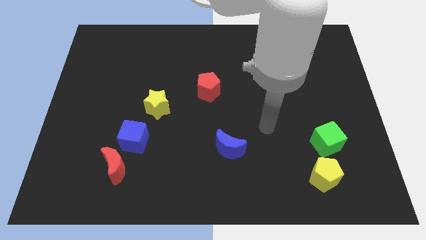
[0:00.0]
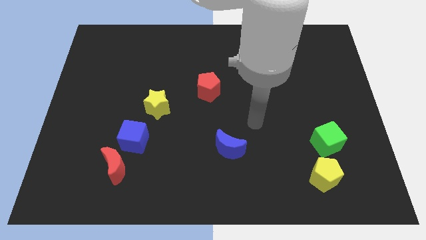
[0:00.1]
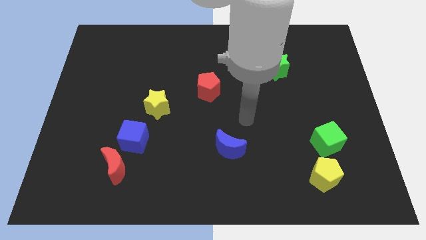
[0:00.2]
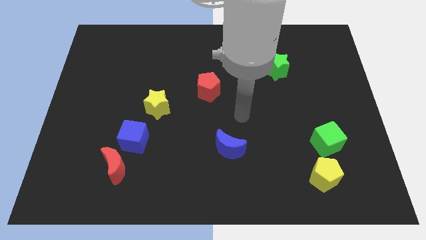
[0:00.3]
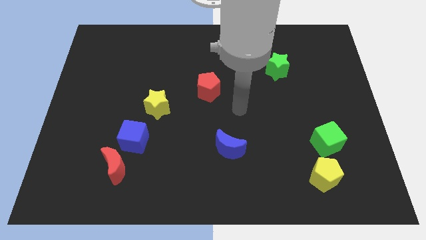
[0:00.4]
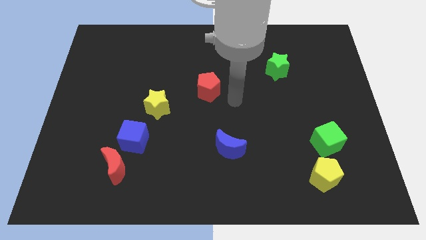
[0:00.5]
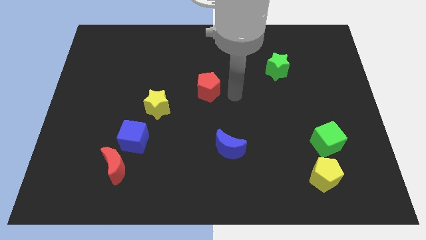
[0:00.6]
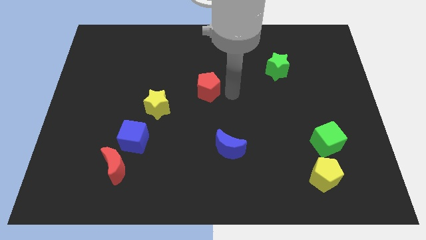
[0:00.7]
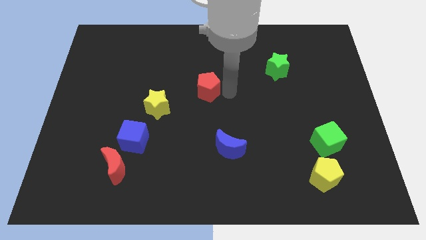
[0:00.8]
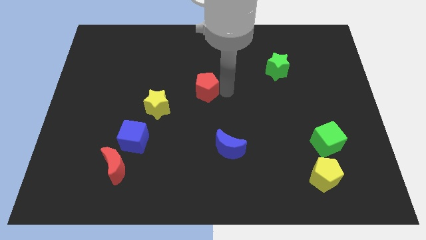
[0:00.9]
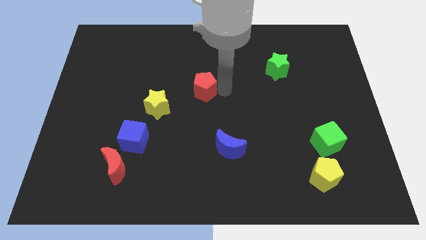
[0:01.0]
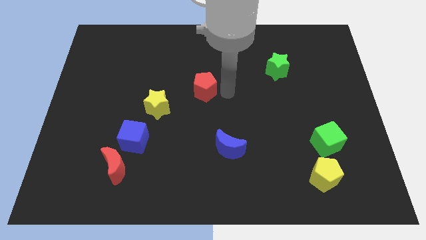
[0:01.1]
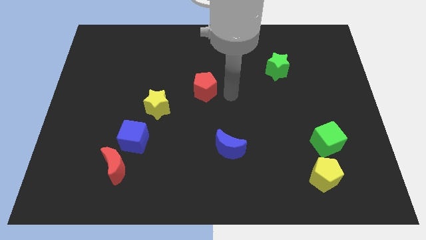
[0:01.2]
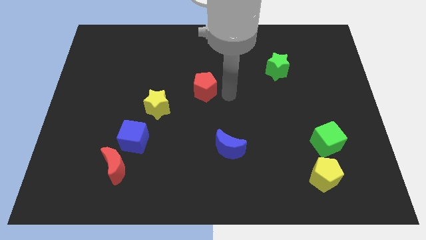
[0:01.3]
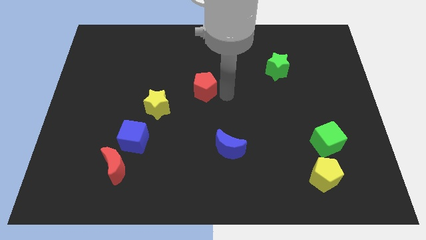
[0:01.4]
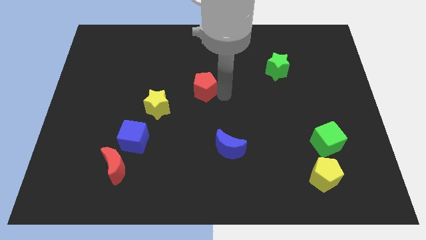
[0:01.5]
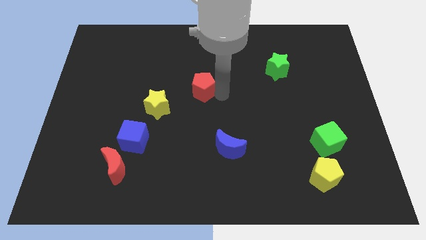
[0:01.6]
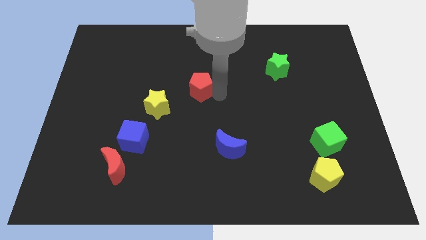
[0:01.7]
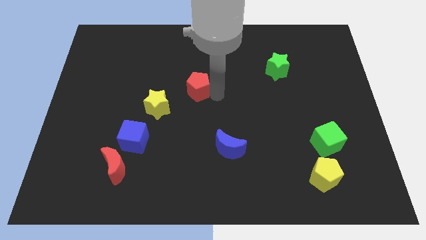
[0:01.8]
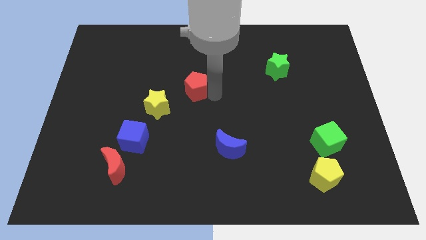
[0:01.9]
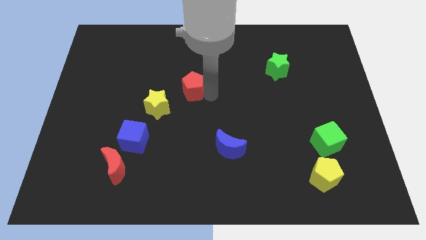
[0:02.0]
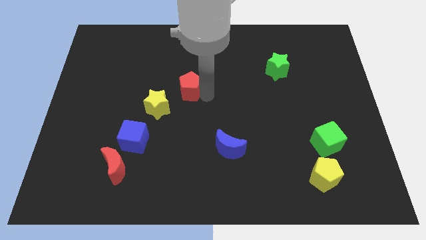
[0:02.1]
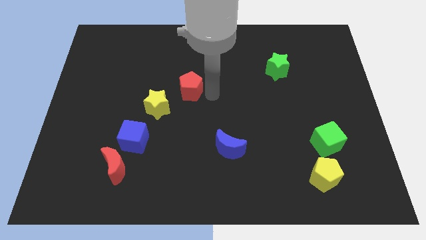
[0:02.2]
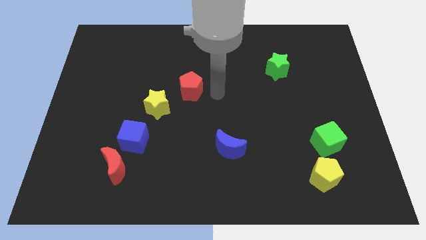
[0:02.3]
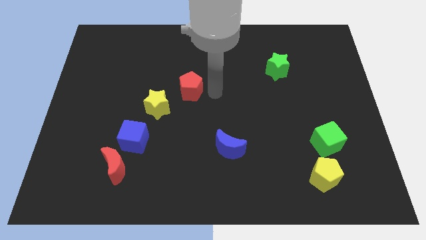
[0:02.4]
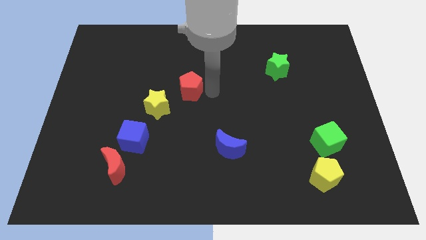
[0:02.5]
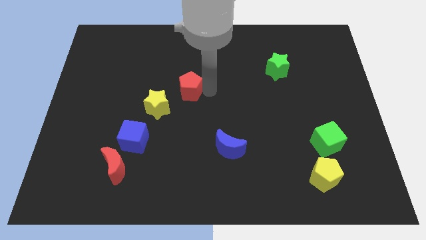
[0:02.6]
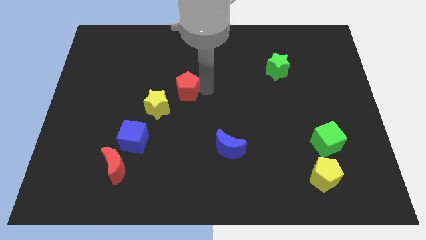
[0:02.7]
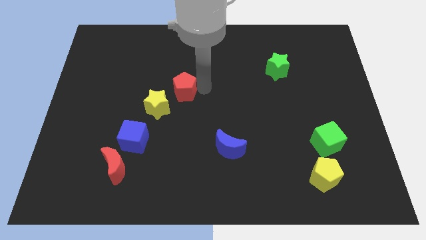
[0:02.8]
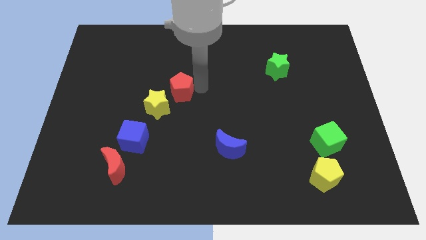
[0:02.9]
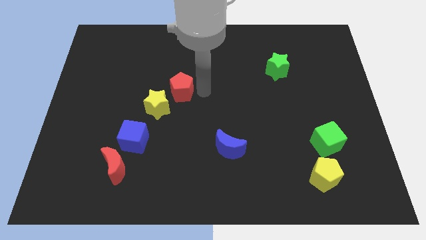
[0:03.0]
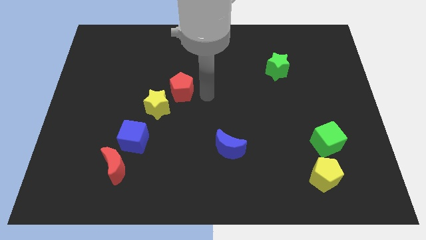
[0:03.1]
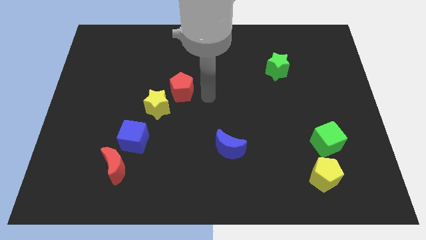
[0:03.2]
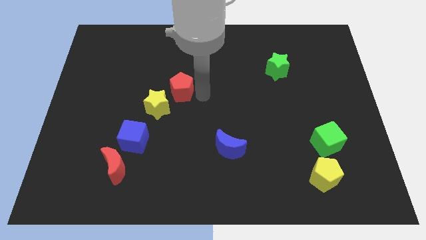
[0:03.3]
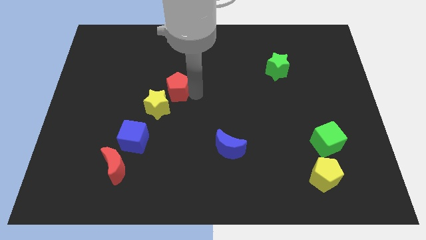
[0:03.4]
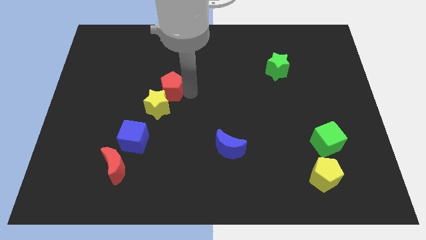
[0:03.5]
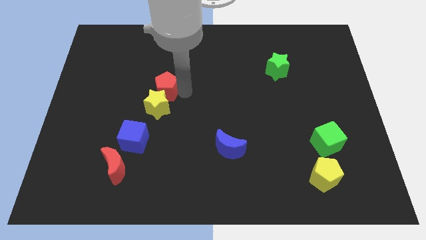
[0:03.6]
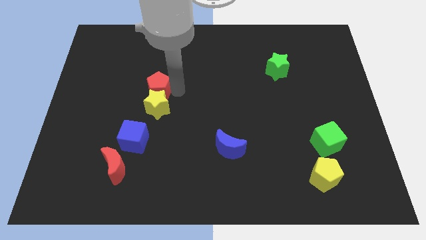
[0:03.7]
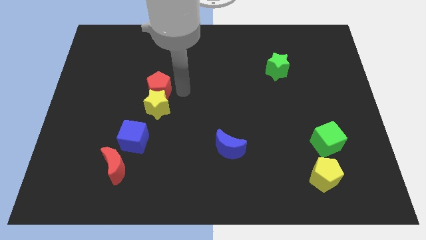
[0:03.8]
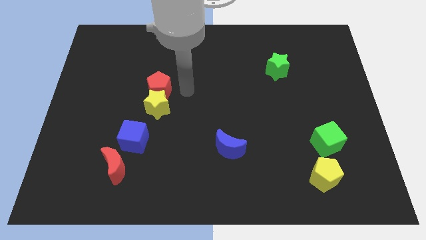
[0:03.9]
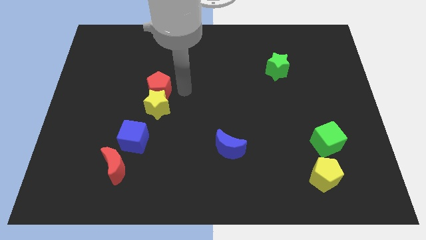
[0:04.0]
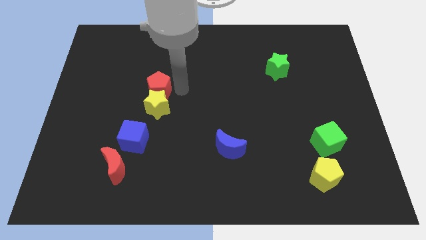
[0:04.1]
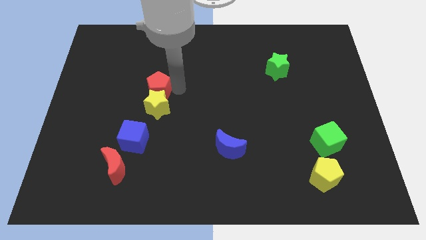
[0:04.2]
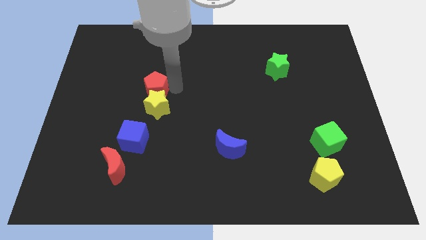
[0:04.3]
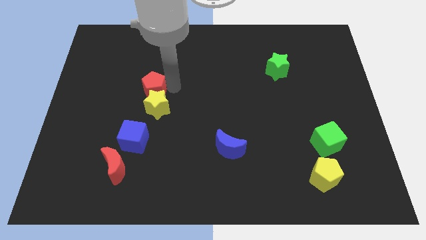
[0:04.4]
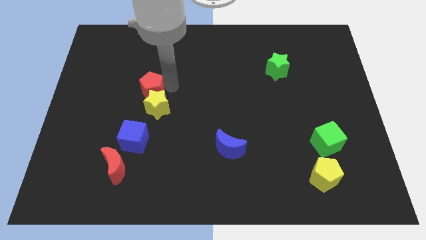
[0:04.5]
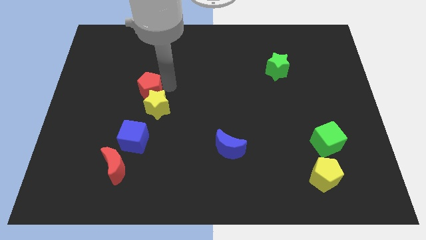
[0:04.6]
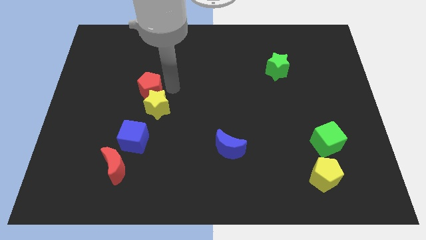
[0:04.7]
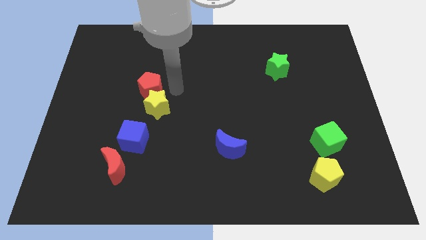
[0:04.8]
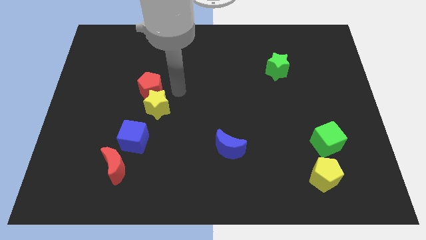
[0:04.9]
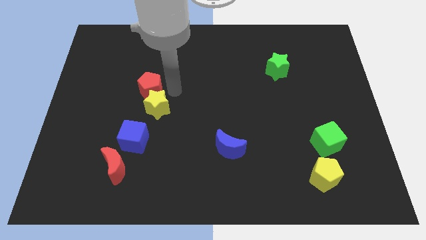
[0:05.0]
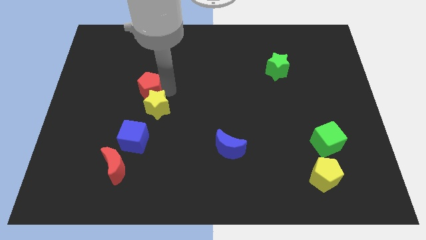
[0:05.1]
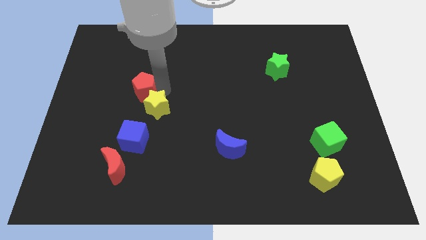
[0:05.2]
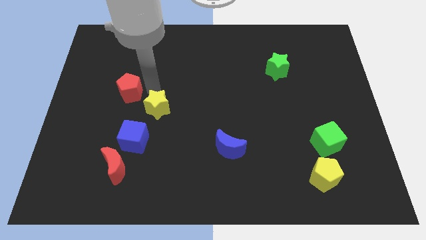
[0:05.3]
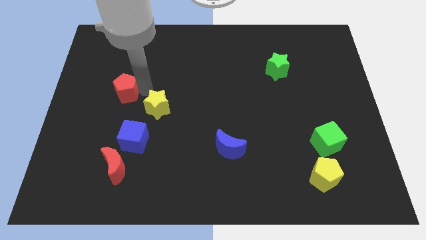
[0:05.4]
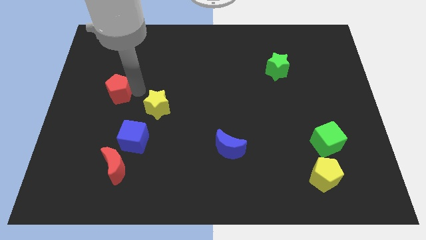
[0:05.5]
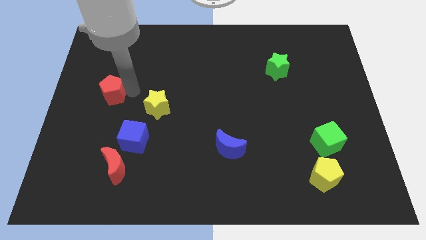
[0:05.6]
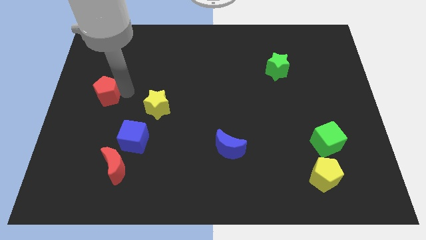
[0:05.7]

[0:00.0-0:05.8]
move the red pentagon to the left side
